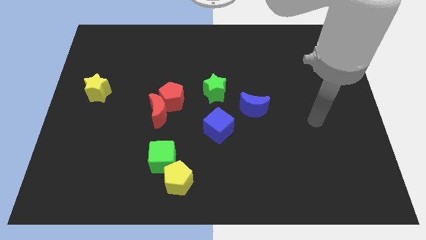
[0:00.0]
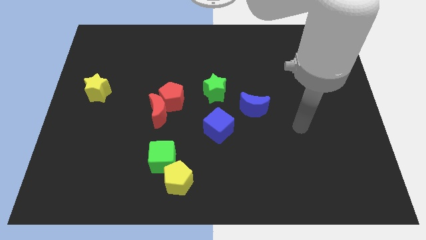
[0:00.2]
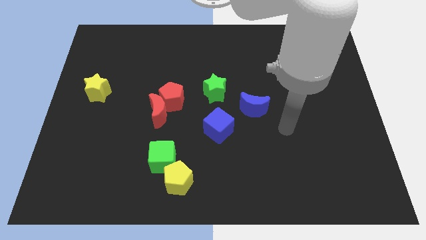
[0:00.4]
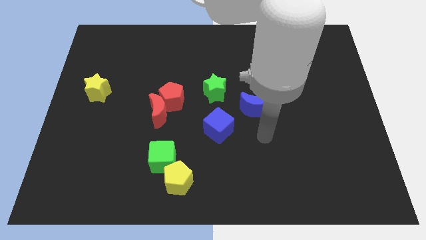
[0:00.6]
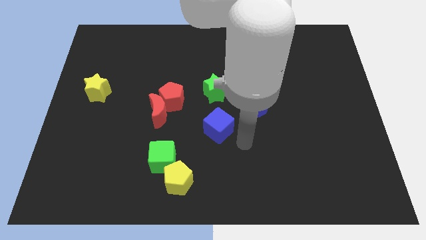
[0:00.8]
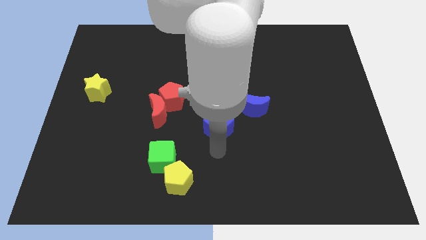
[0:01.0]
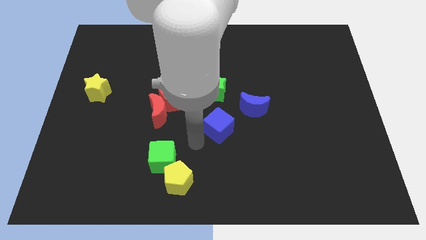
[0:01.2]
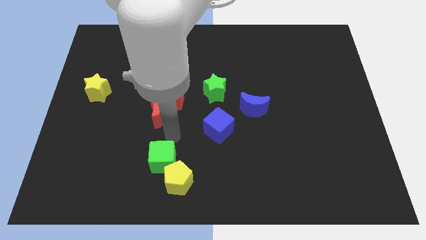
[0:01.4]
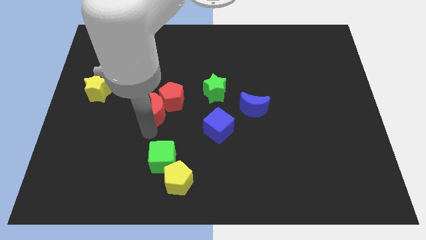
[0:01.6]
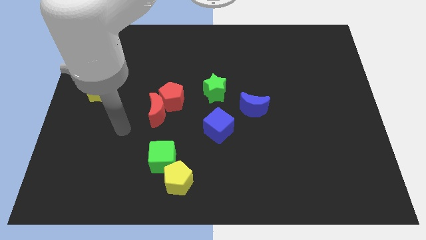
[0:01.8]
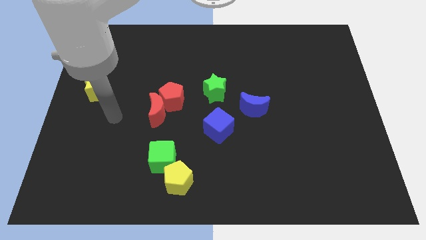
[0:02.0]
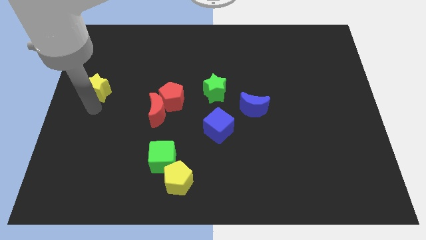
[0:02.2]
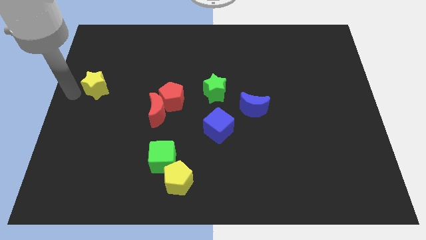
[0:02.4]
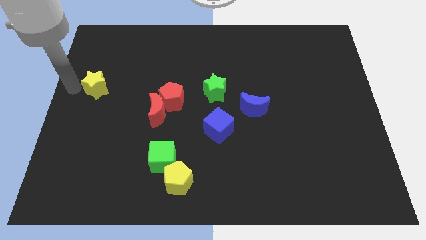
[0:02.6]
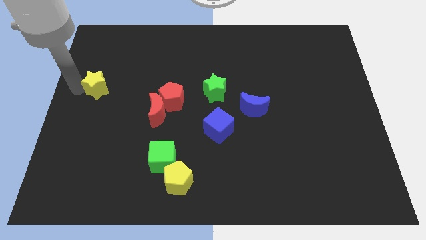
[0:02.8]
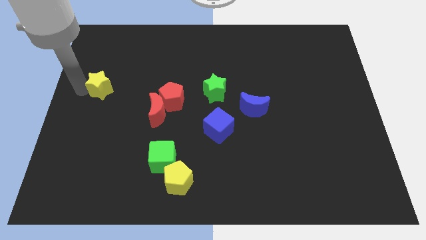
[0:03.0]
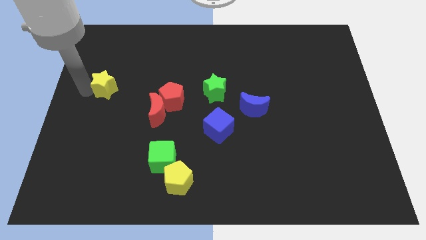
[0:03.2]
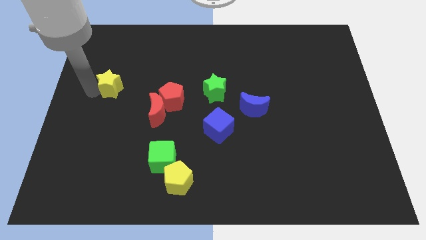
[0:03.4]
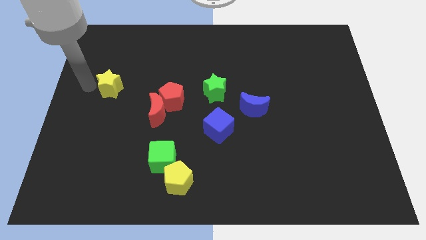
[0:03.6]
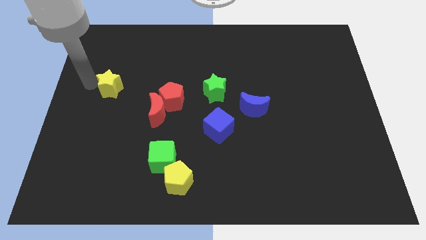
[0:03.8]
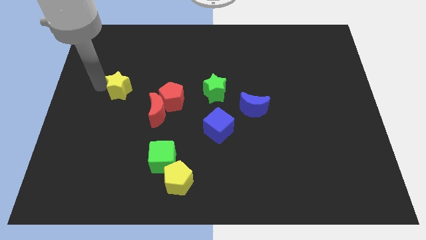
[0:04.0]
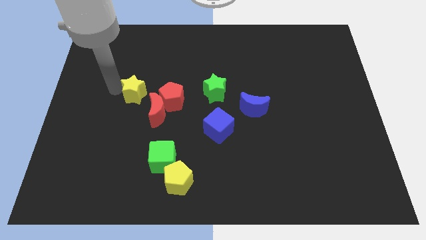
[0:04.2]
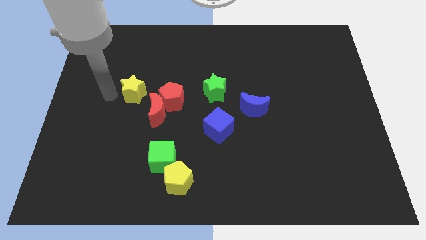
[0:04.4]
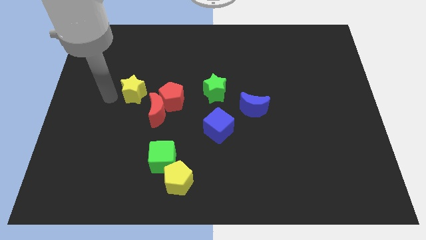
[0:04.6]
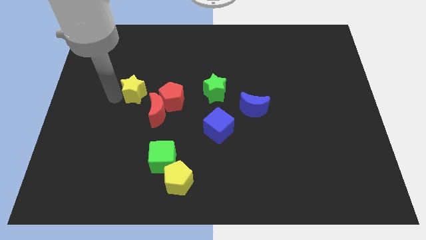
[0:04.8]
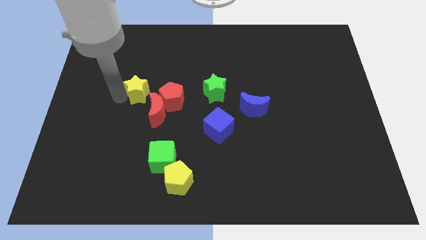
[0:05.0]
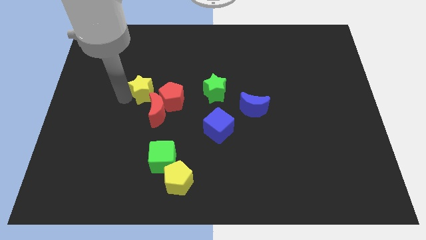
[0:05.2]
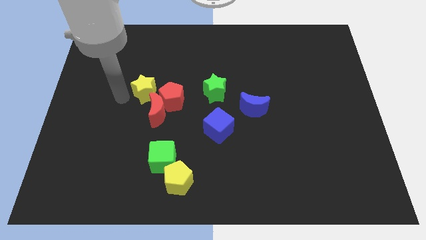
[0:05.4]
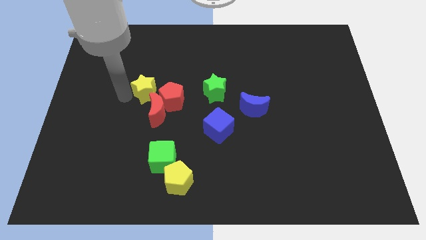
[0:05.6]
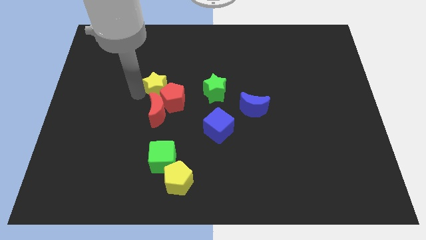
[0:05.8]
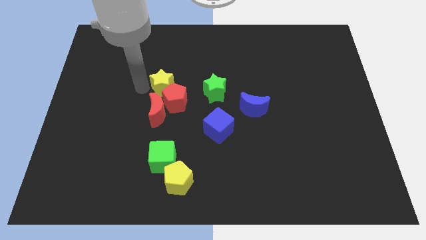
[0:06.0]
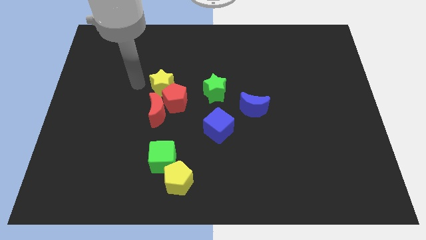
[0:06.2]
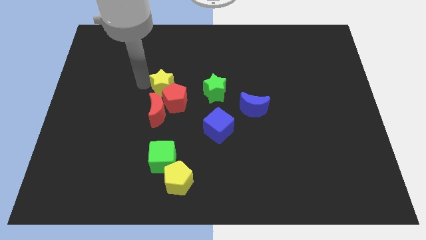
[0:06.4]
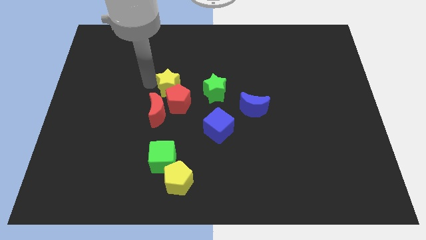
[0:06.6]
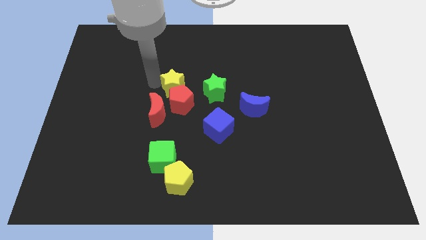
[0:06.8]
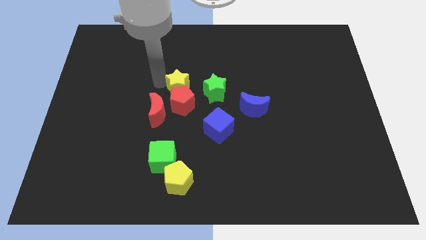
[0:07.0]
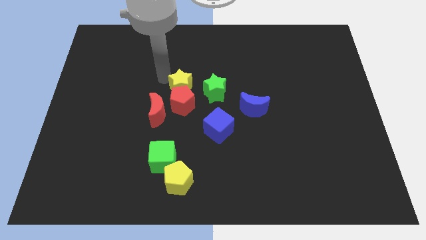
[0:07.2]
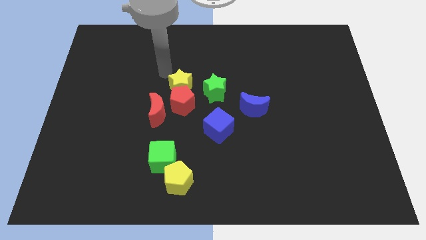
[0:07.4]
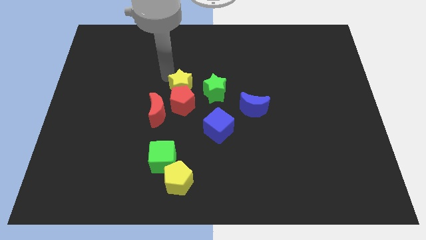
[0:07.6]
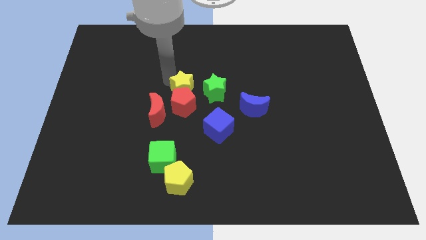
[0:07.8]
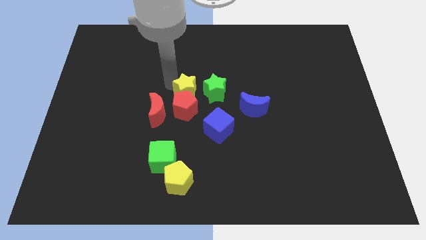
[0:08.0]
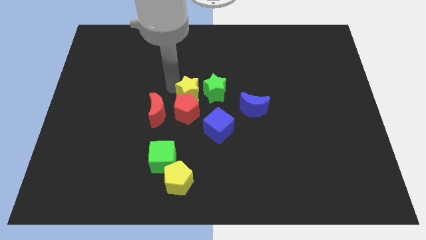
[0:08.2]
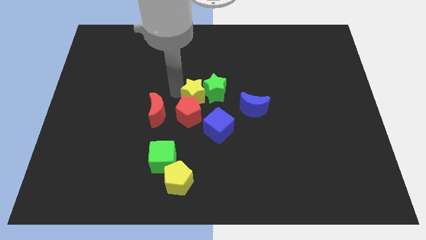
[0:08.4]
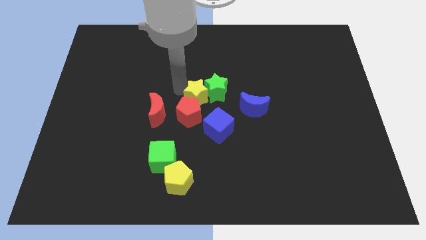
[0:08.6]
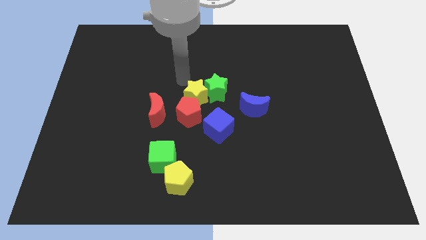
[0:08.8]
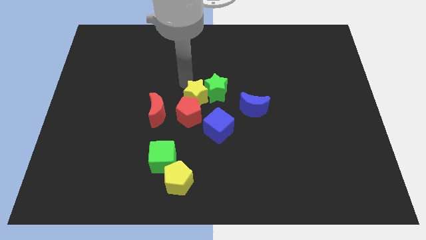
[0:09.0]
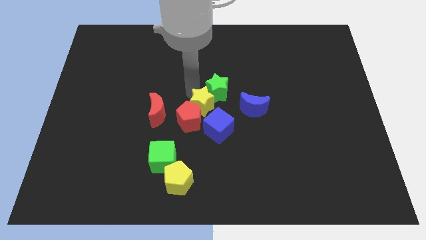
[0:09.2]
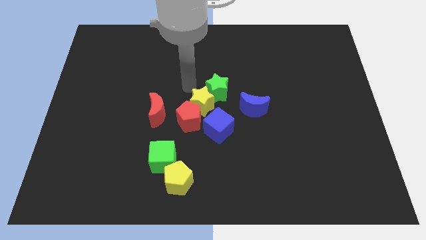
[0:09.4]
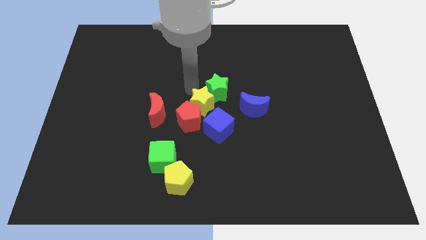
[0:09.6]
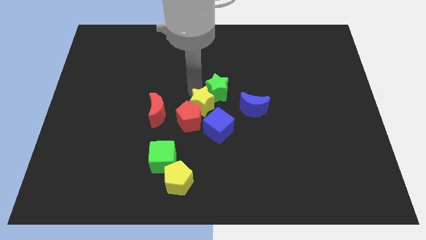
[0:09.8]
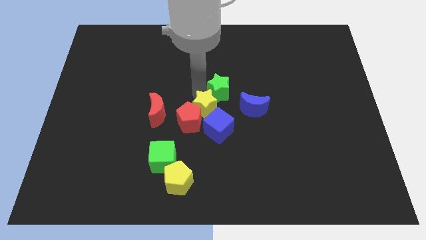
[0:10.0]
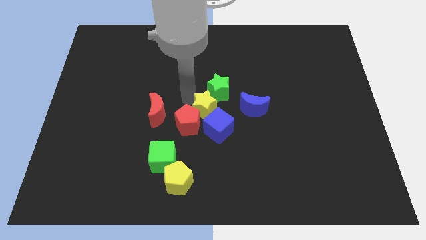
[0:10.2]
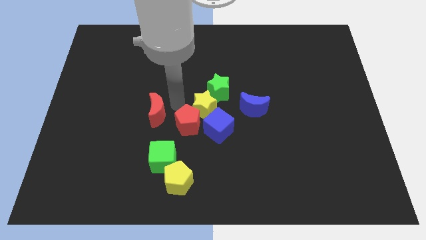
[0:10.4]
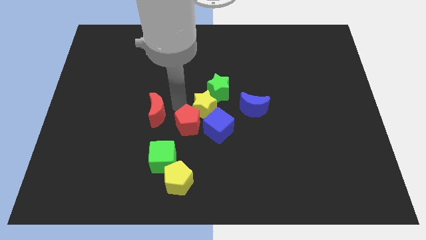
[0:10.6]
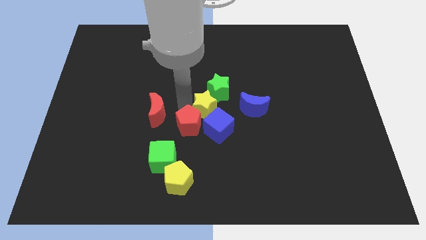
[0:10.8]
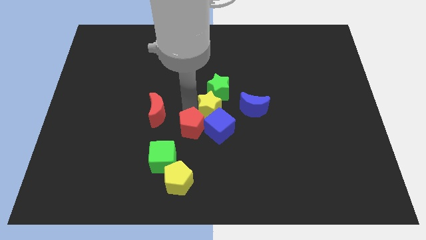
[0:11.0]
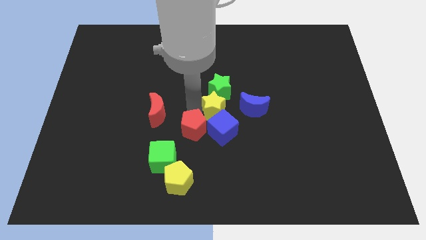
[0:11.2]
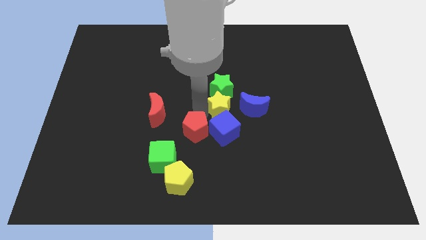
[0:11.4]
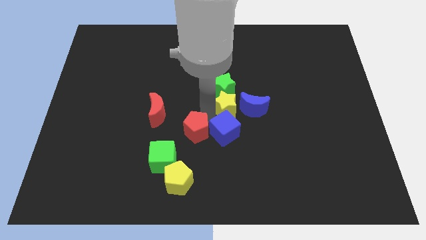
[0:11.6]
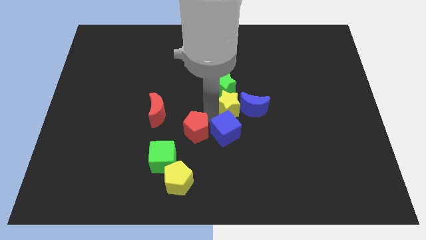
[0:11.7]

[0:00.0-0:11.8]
move the yellow star next to the blue moon

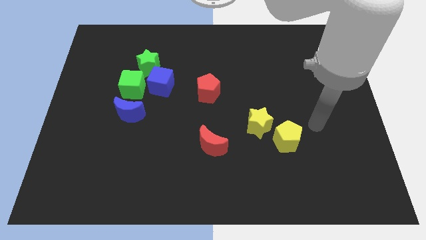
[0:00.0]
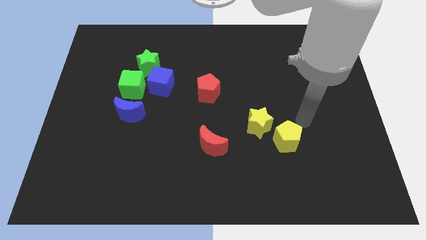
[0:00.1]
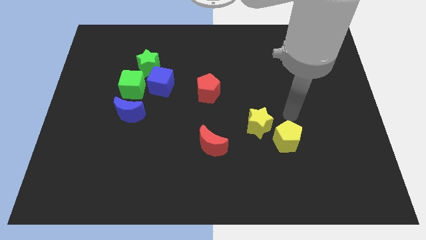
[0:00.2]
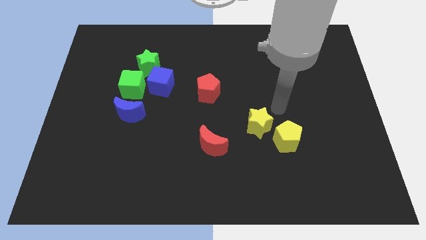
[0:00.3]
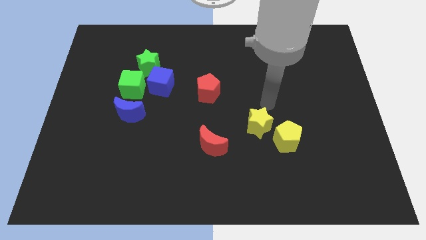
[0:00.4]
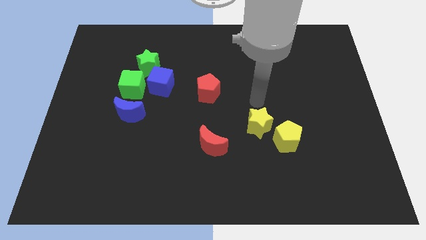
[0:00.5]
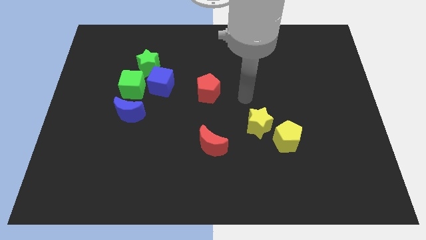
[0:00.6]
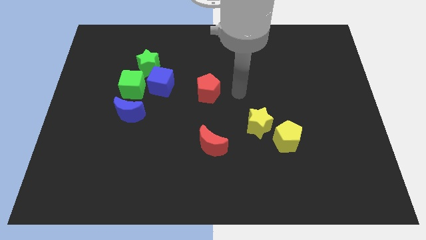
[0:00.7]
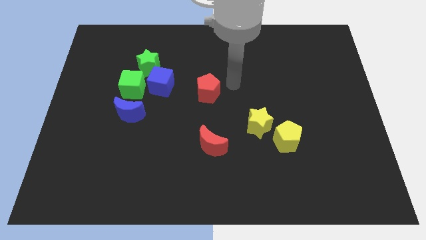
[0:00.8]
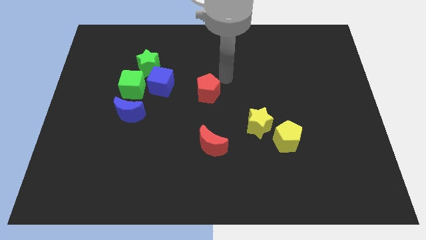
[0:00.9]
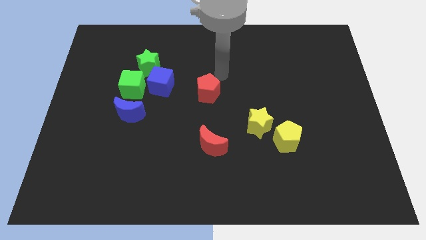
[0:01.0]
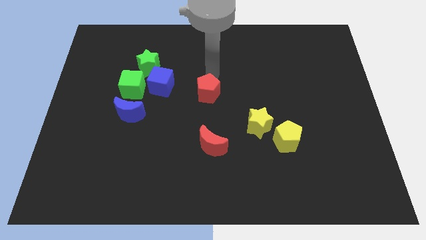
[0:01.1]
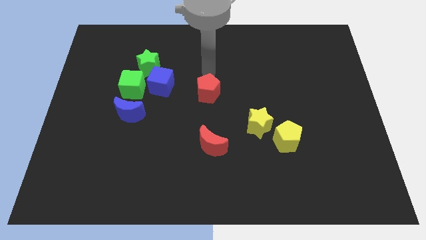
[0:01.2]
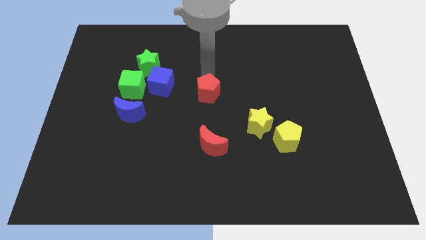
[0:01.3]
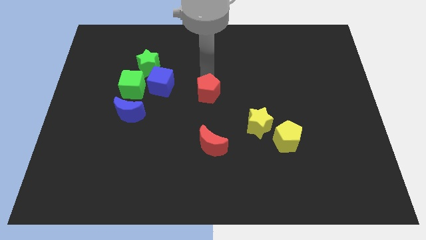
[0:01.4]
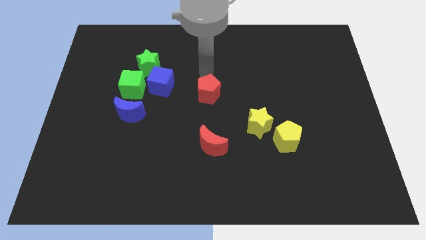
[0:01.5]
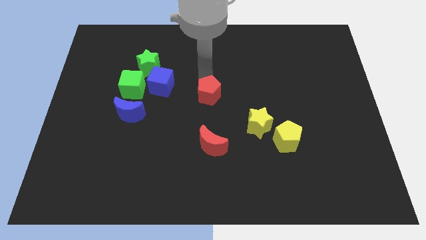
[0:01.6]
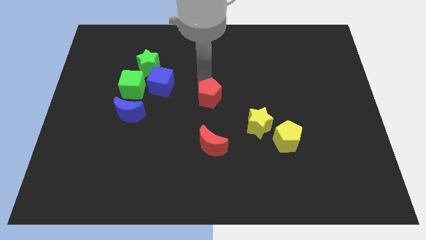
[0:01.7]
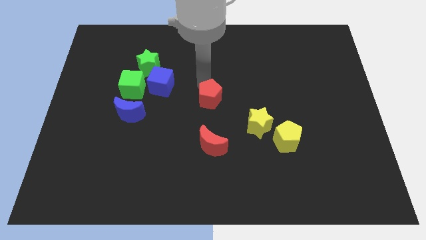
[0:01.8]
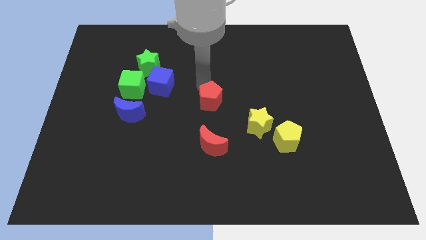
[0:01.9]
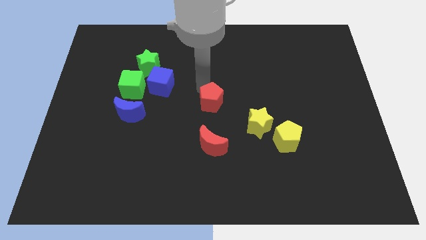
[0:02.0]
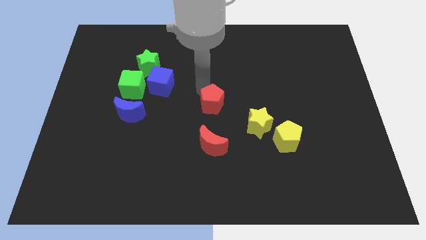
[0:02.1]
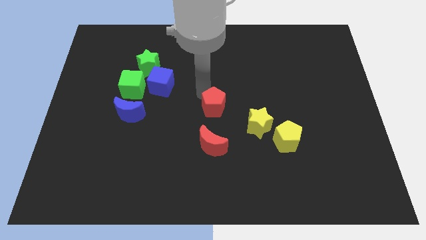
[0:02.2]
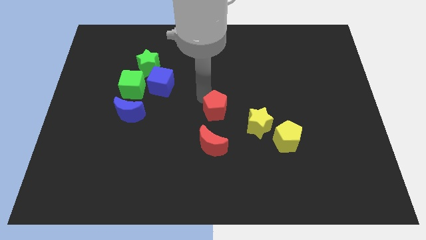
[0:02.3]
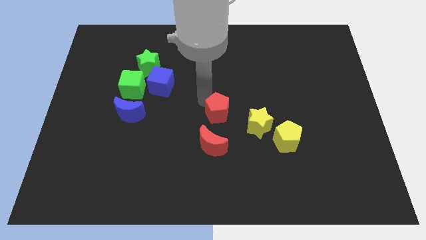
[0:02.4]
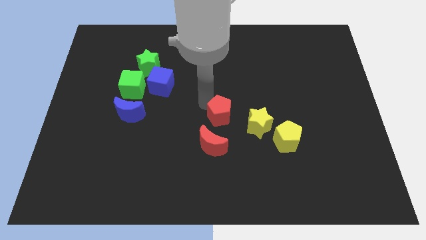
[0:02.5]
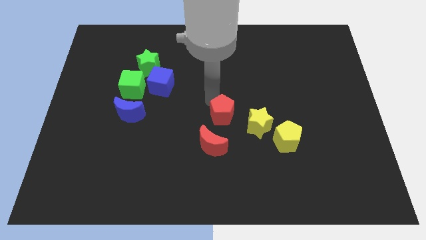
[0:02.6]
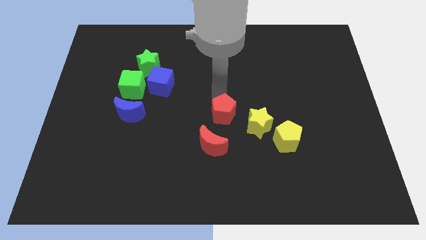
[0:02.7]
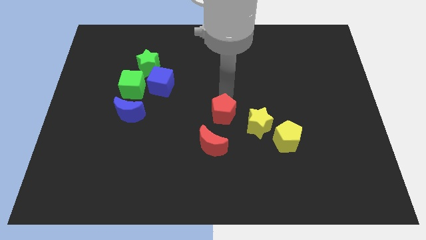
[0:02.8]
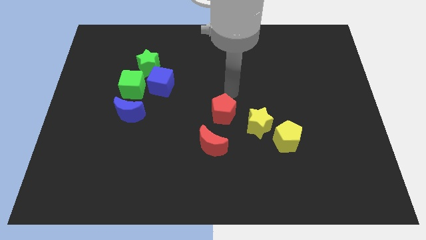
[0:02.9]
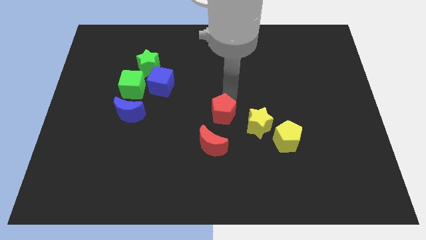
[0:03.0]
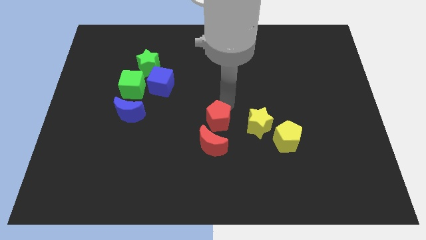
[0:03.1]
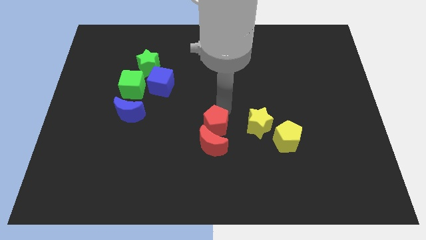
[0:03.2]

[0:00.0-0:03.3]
slide the red pentagon towards the red moon
